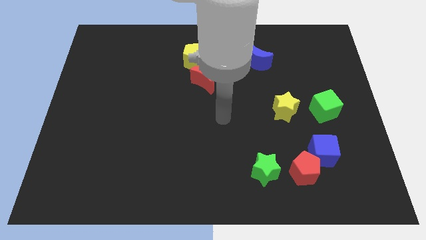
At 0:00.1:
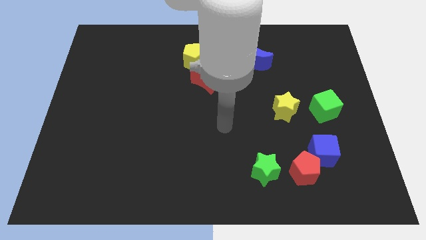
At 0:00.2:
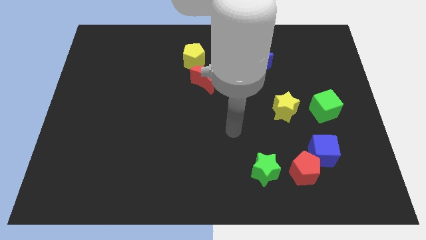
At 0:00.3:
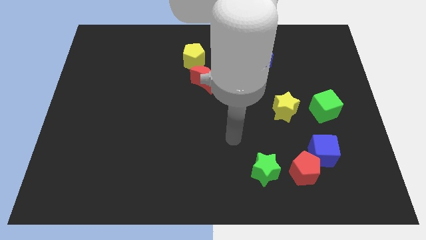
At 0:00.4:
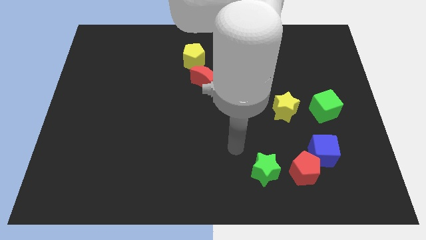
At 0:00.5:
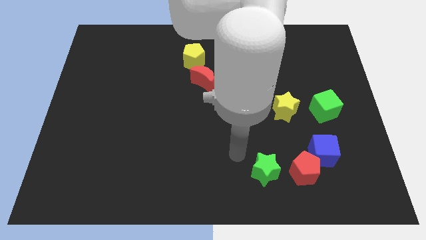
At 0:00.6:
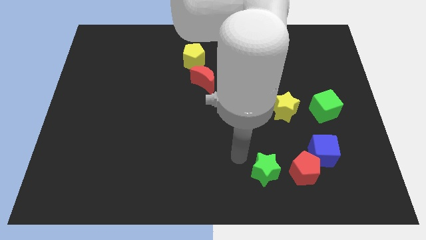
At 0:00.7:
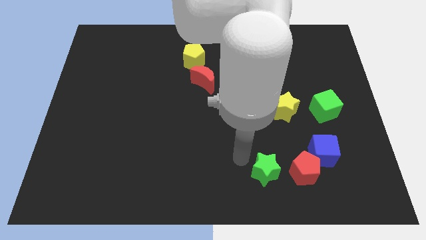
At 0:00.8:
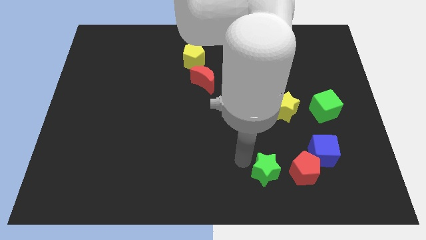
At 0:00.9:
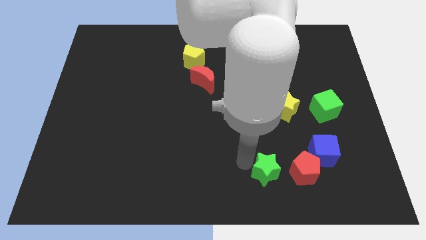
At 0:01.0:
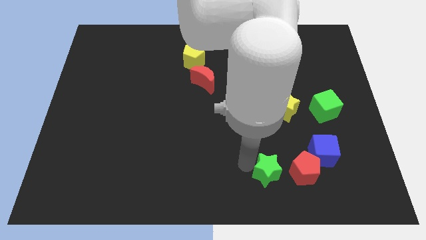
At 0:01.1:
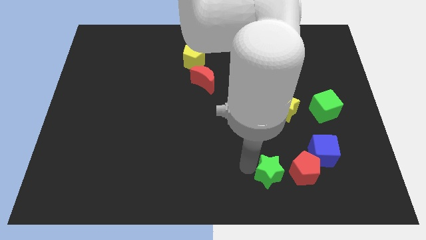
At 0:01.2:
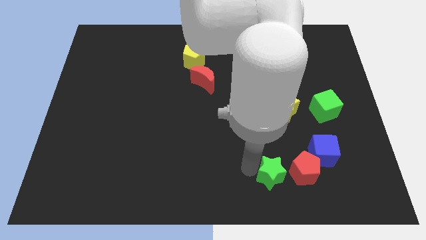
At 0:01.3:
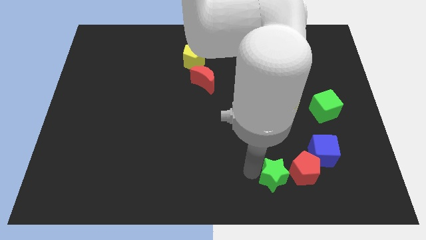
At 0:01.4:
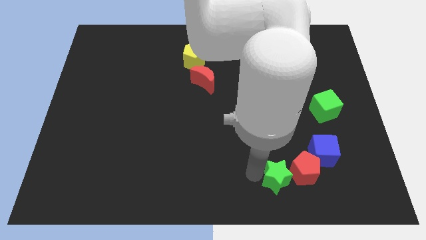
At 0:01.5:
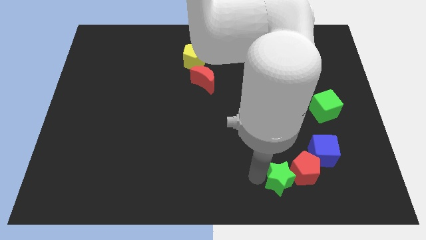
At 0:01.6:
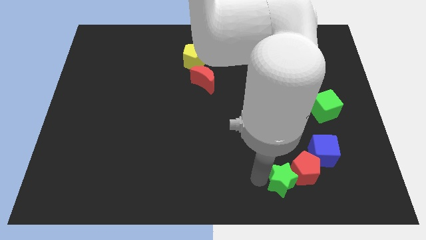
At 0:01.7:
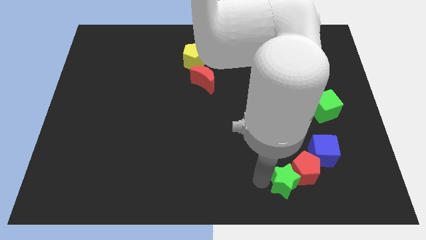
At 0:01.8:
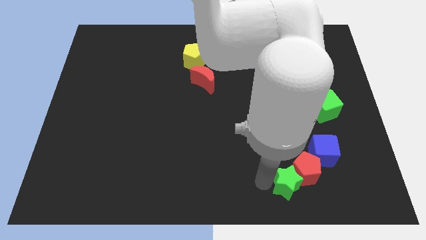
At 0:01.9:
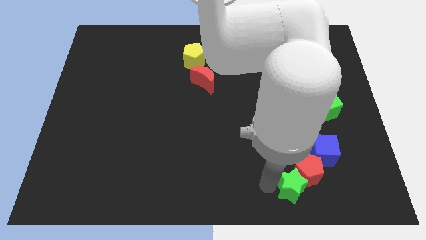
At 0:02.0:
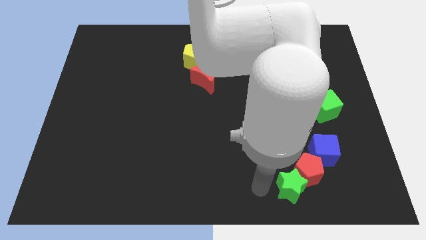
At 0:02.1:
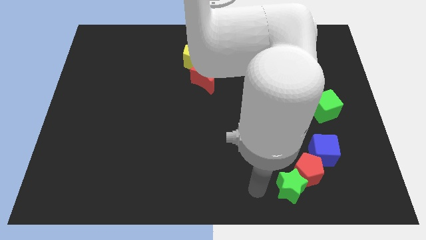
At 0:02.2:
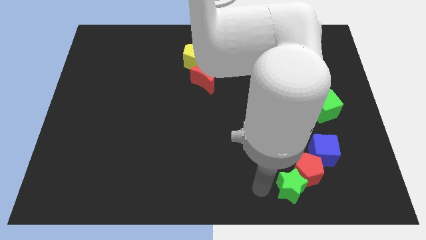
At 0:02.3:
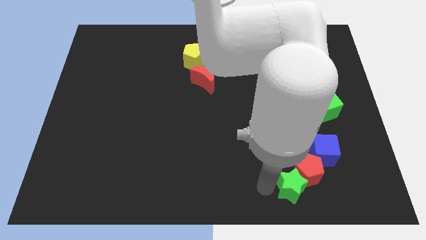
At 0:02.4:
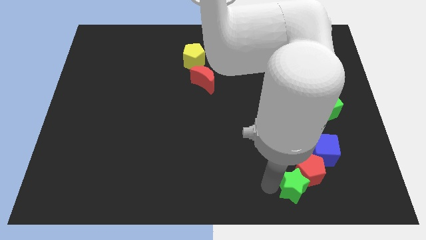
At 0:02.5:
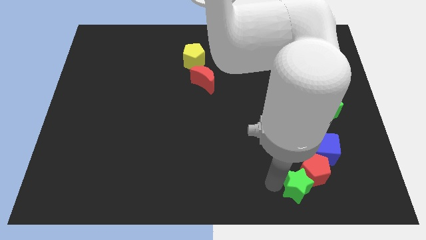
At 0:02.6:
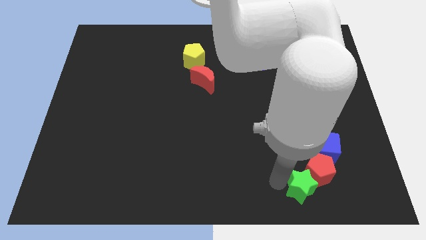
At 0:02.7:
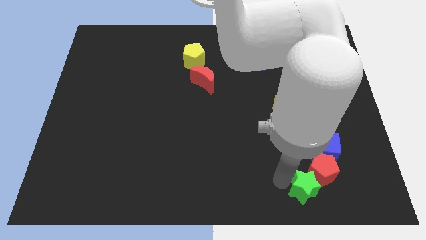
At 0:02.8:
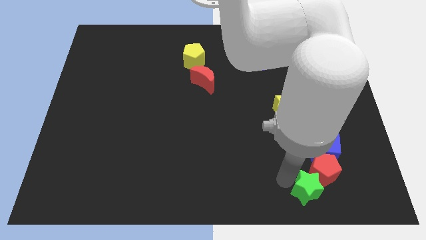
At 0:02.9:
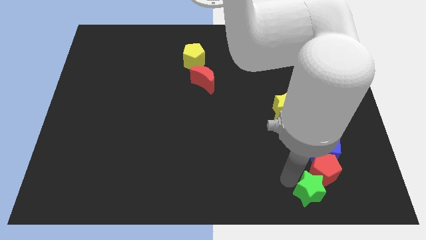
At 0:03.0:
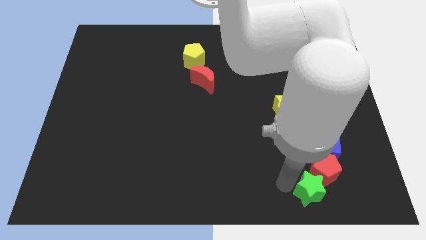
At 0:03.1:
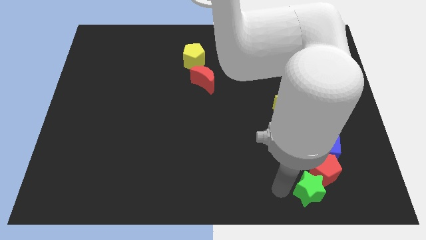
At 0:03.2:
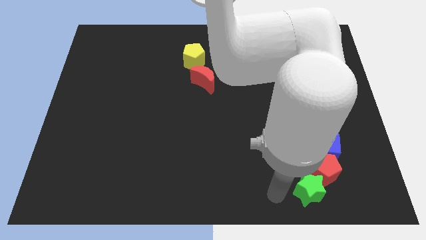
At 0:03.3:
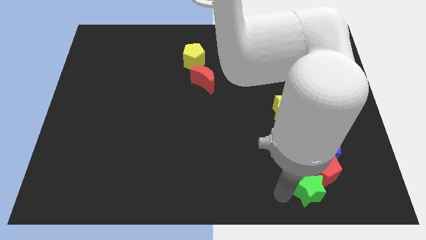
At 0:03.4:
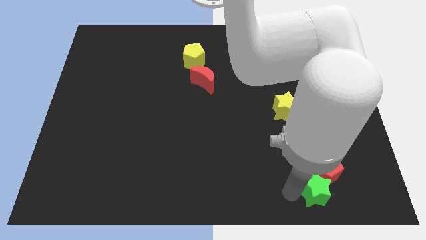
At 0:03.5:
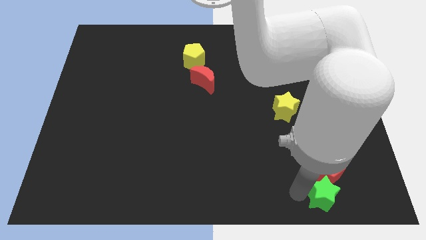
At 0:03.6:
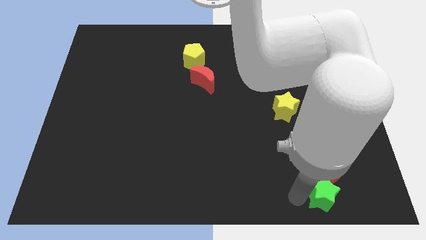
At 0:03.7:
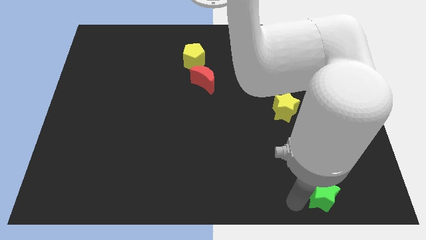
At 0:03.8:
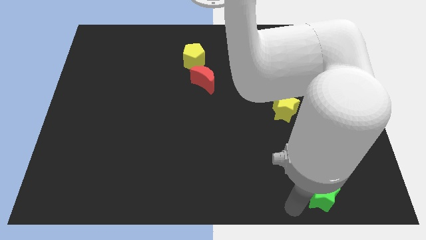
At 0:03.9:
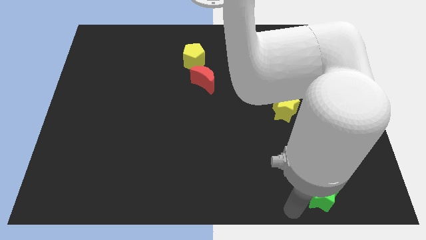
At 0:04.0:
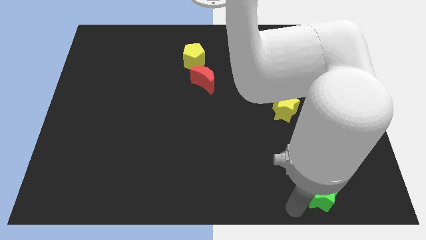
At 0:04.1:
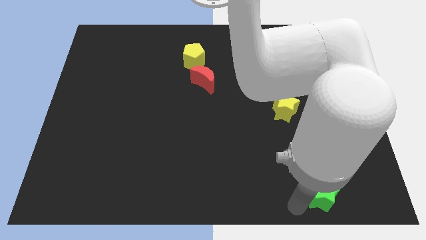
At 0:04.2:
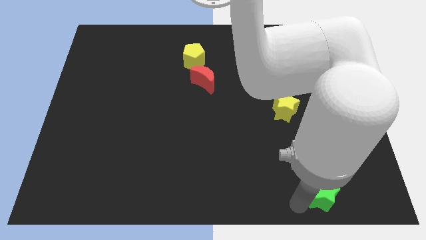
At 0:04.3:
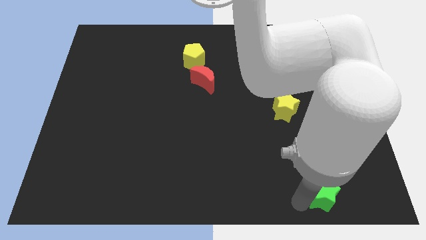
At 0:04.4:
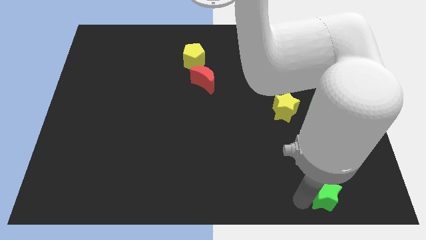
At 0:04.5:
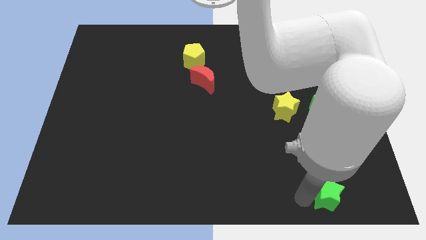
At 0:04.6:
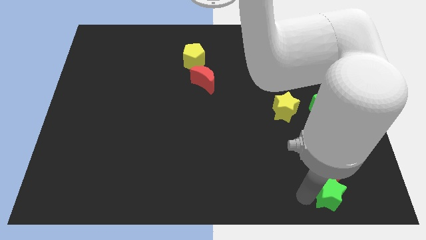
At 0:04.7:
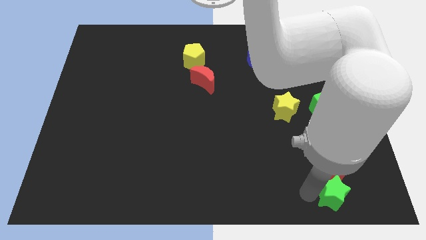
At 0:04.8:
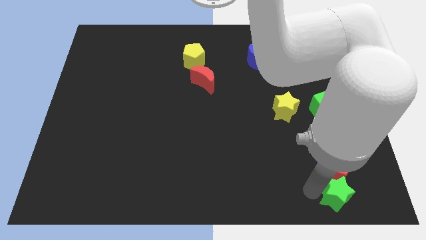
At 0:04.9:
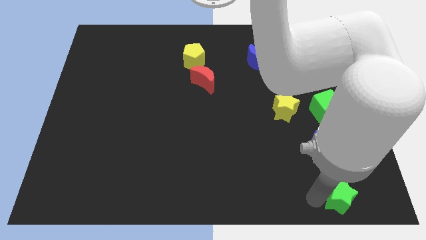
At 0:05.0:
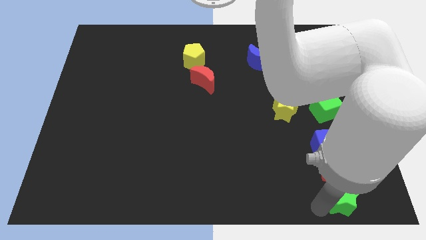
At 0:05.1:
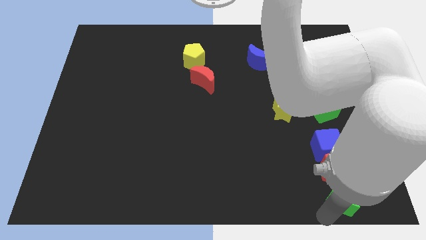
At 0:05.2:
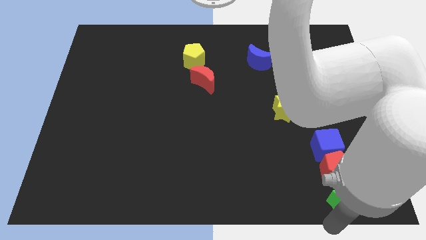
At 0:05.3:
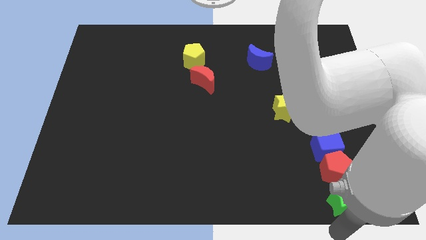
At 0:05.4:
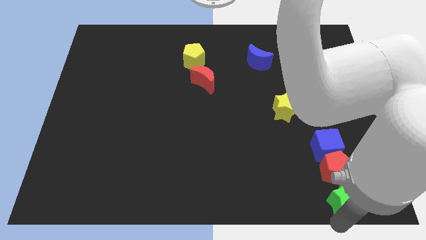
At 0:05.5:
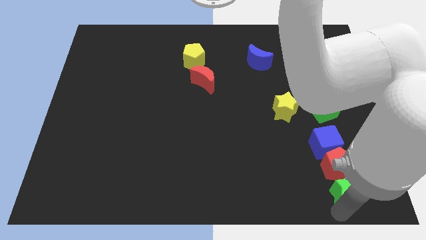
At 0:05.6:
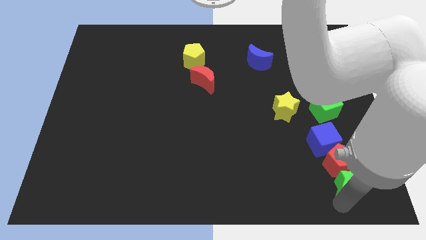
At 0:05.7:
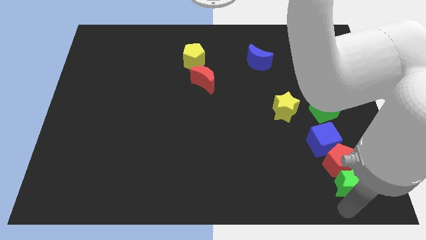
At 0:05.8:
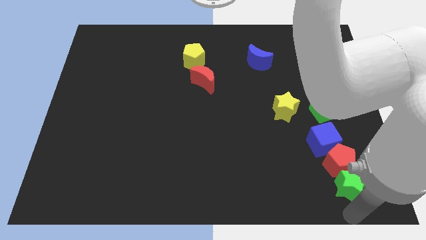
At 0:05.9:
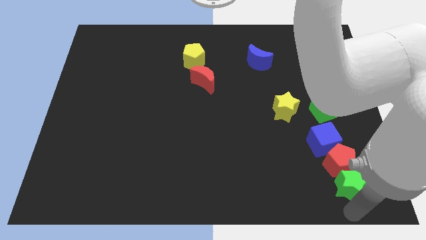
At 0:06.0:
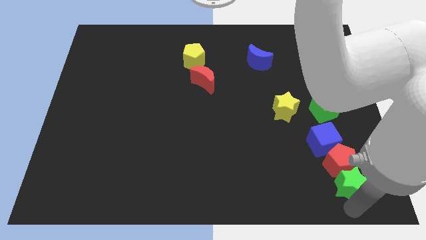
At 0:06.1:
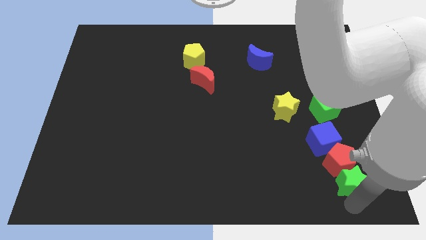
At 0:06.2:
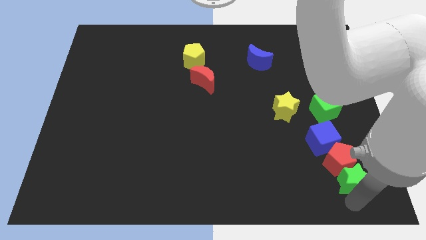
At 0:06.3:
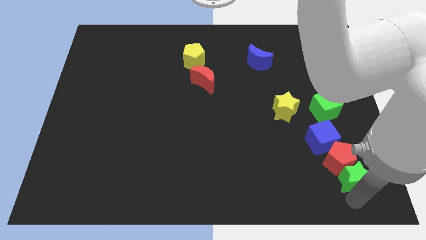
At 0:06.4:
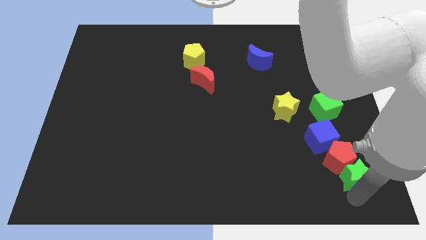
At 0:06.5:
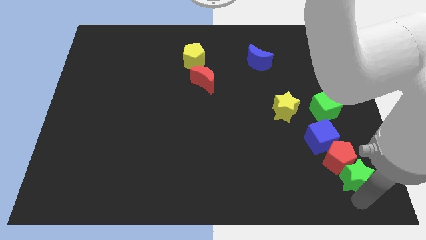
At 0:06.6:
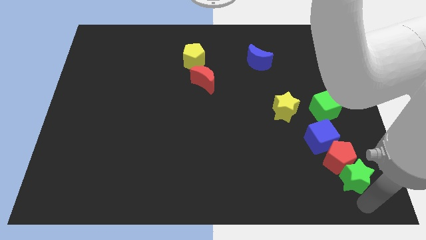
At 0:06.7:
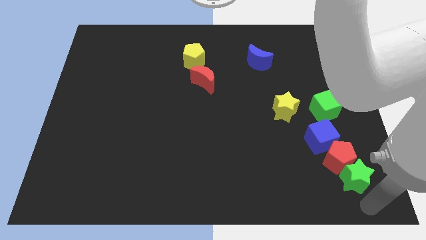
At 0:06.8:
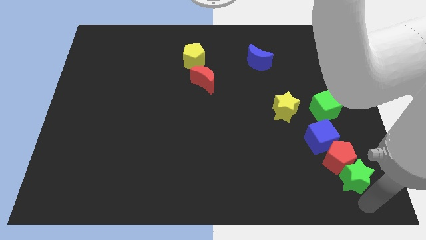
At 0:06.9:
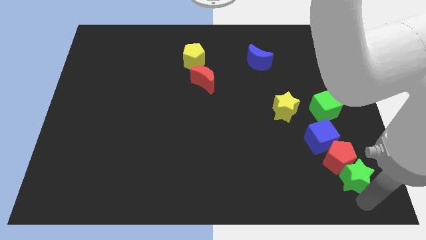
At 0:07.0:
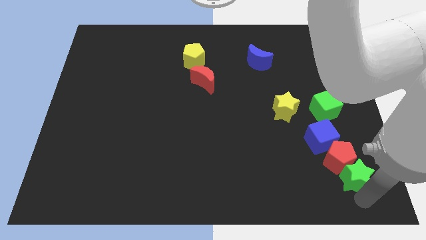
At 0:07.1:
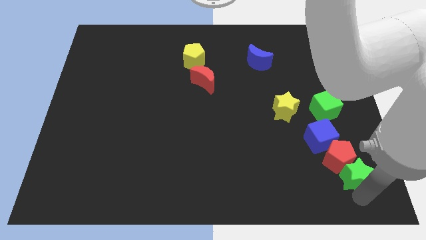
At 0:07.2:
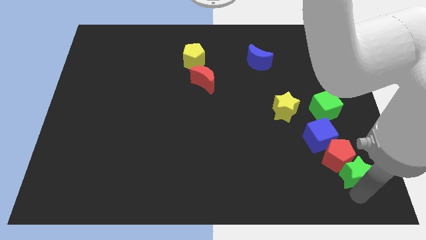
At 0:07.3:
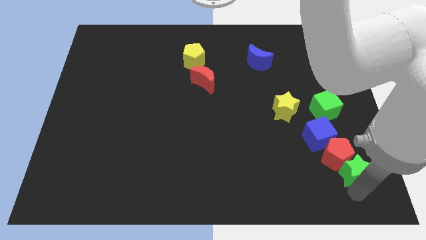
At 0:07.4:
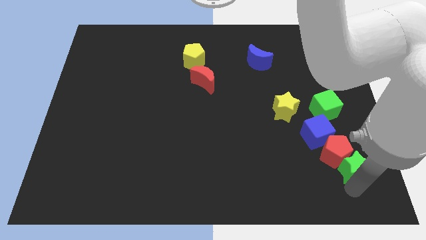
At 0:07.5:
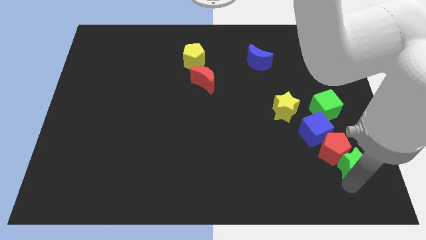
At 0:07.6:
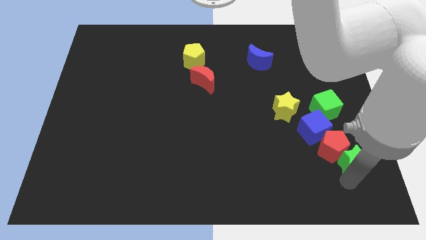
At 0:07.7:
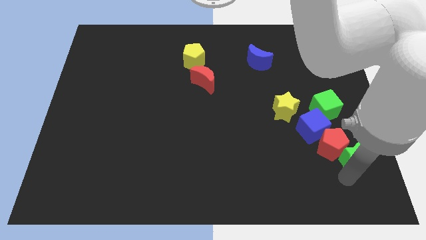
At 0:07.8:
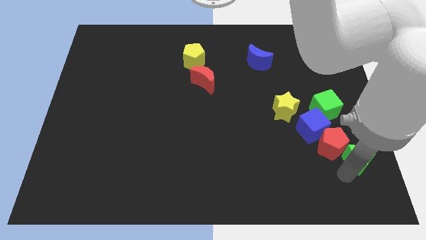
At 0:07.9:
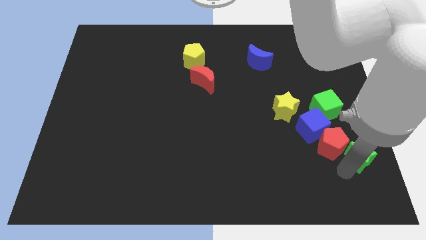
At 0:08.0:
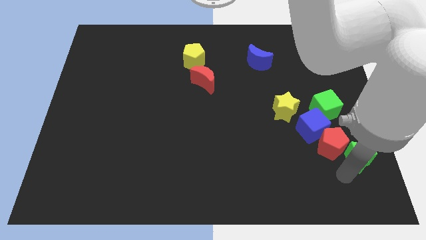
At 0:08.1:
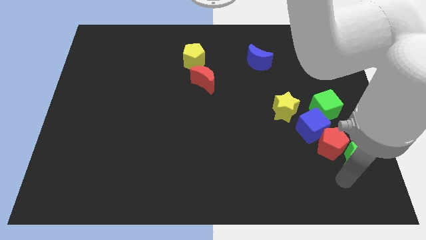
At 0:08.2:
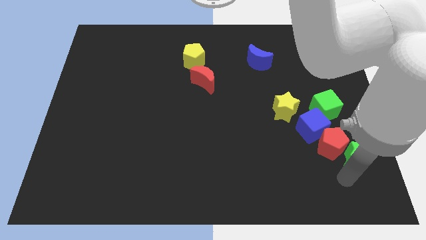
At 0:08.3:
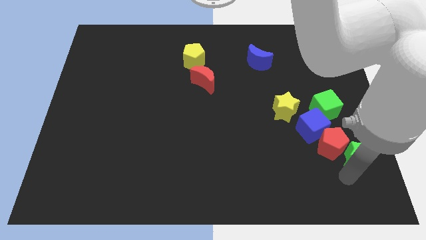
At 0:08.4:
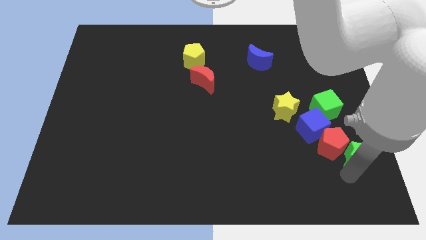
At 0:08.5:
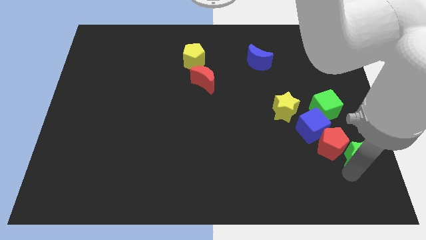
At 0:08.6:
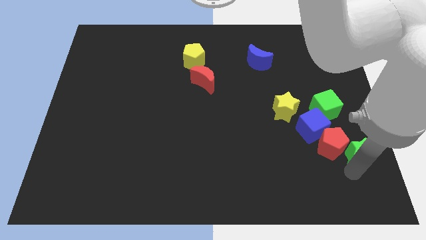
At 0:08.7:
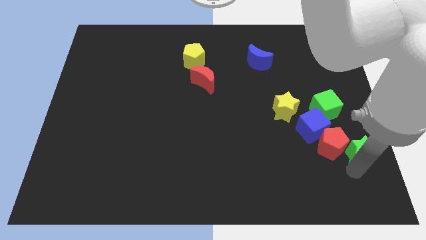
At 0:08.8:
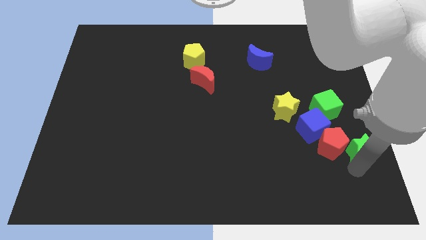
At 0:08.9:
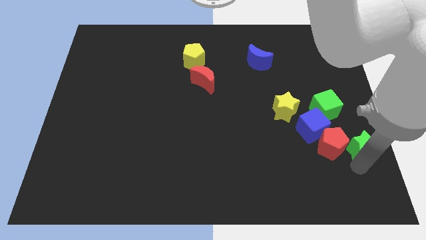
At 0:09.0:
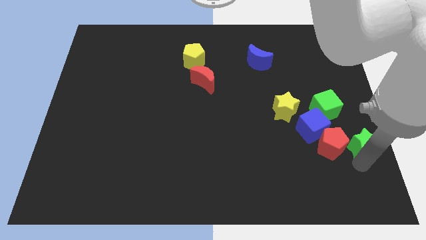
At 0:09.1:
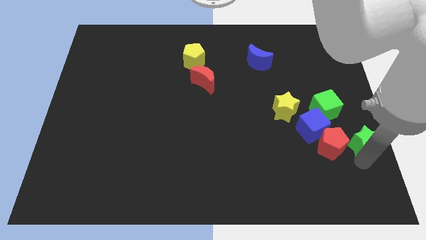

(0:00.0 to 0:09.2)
slide the green star to the center right
